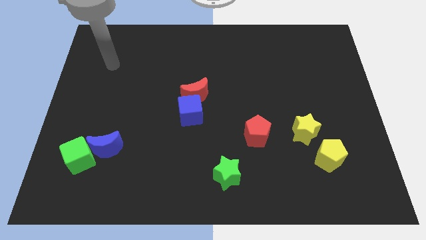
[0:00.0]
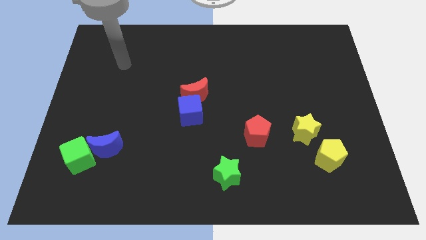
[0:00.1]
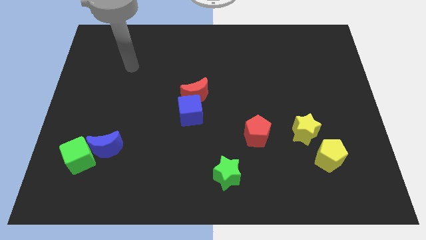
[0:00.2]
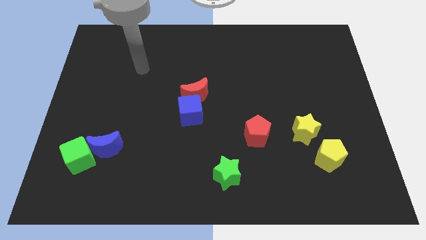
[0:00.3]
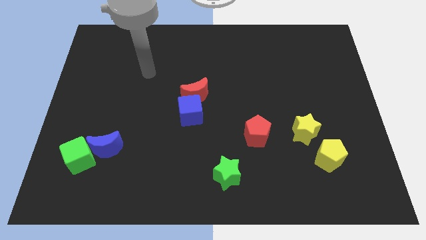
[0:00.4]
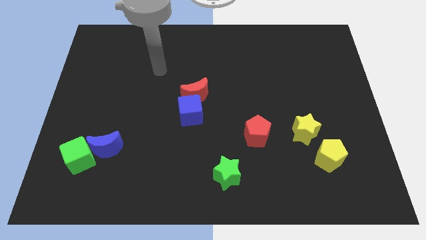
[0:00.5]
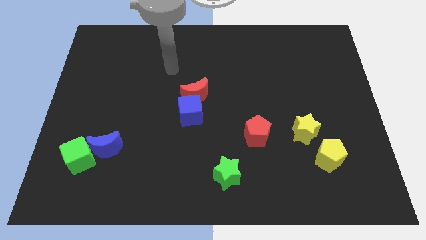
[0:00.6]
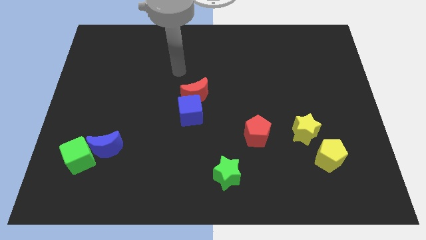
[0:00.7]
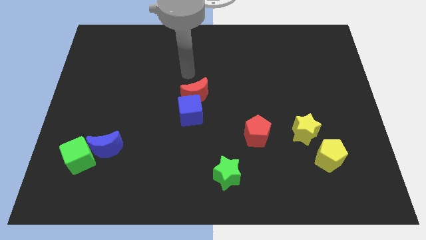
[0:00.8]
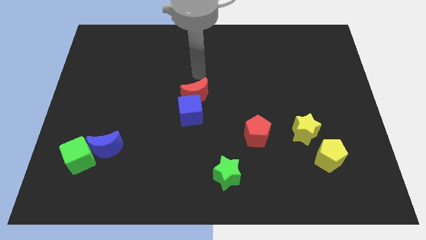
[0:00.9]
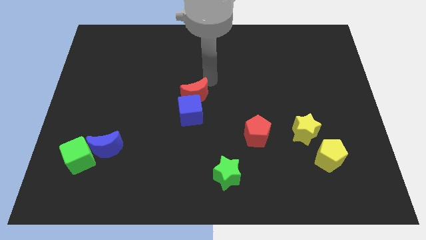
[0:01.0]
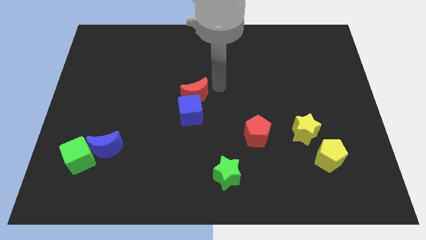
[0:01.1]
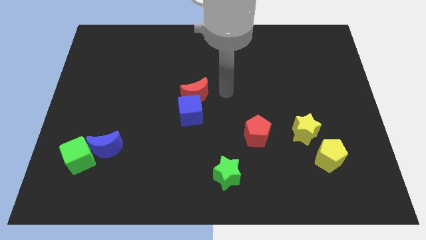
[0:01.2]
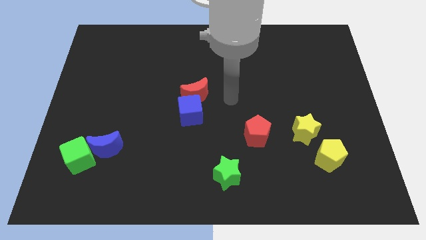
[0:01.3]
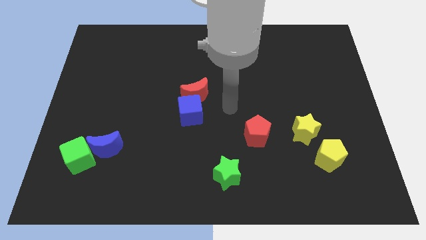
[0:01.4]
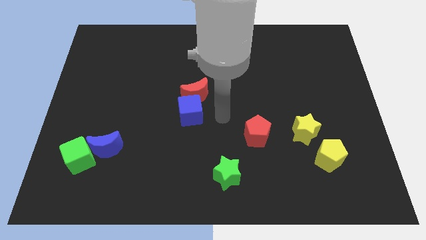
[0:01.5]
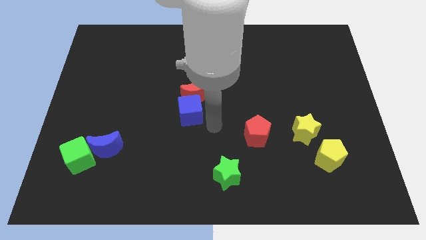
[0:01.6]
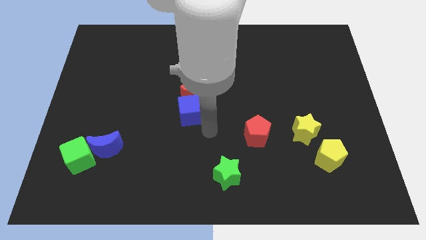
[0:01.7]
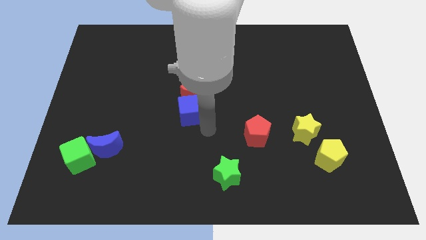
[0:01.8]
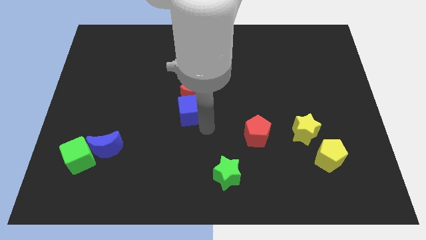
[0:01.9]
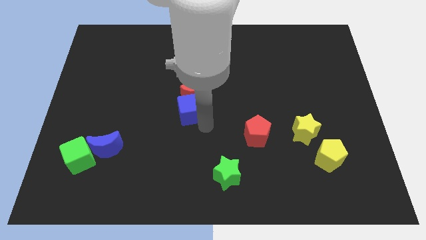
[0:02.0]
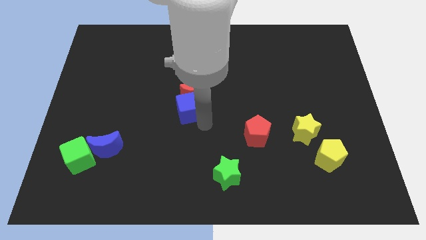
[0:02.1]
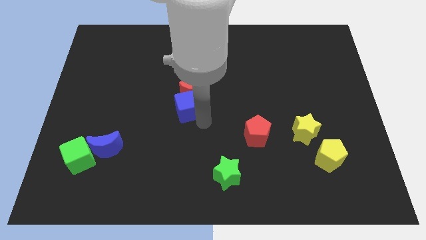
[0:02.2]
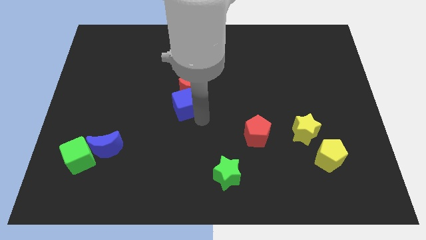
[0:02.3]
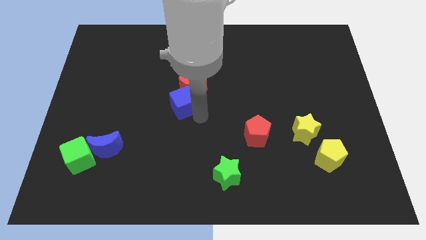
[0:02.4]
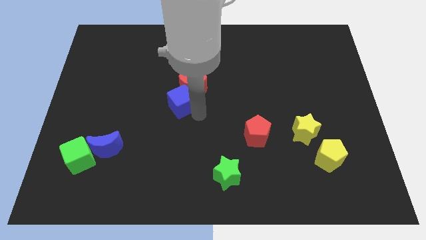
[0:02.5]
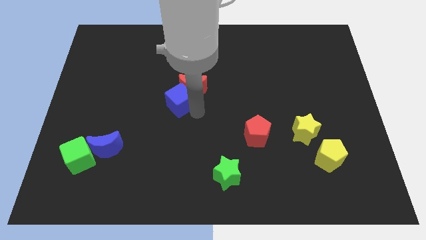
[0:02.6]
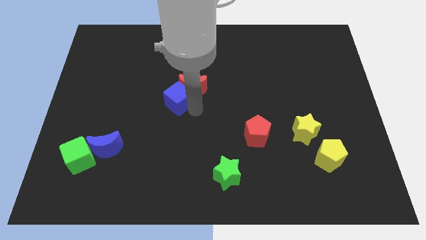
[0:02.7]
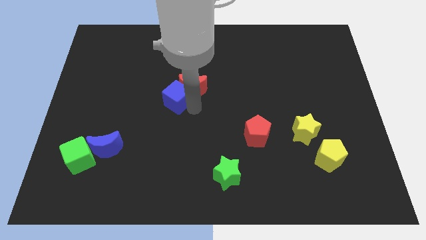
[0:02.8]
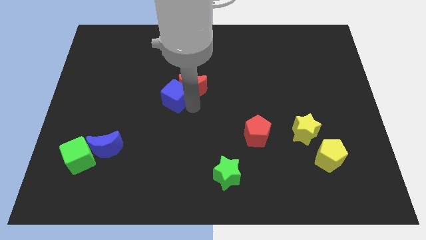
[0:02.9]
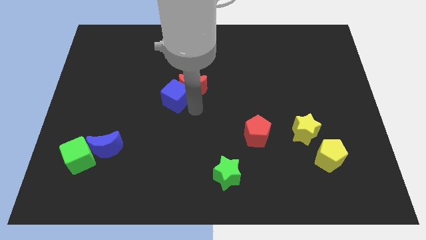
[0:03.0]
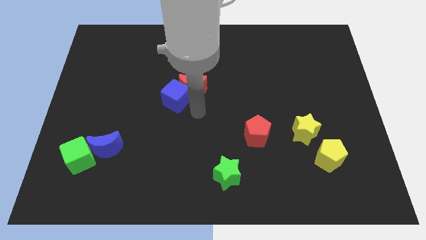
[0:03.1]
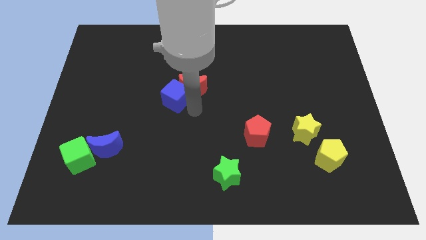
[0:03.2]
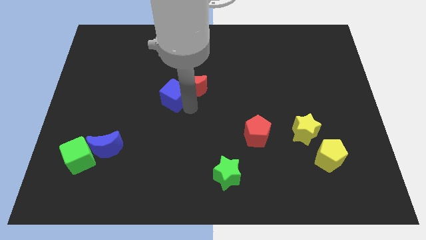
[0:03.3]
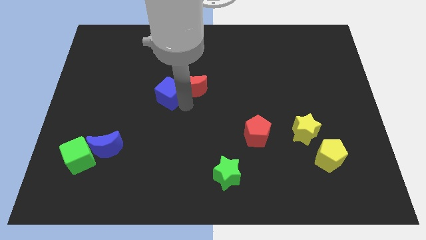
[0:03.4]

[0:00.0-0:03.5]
slightly move the blue cube upwards and then to the left

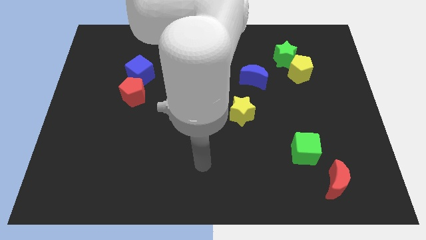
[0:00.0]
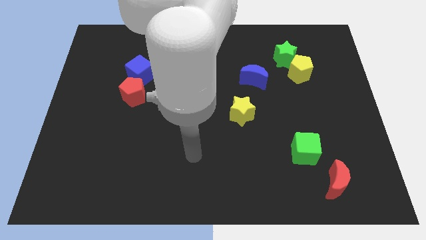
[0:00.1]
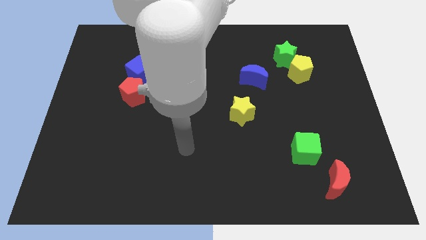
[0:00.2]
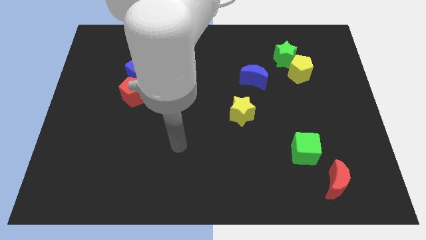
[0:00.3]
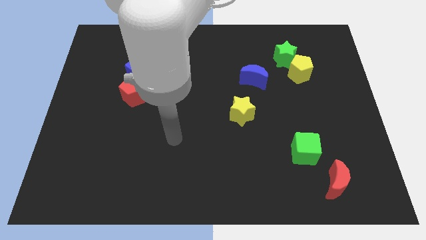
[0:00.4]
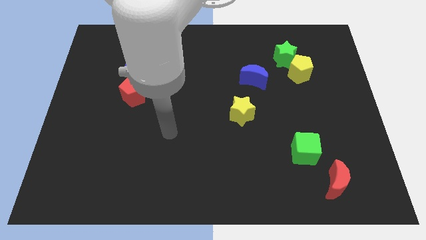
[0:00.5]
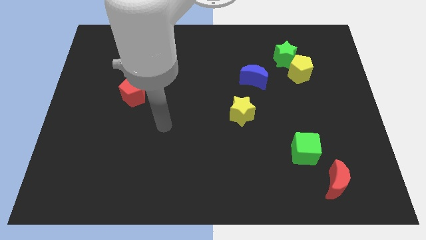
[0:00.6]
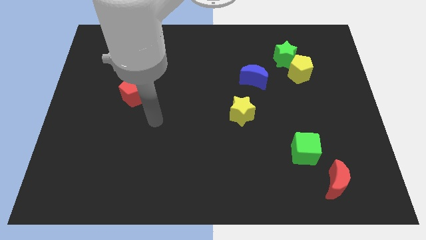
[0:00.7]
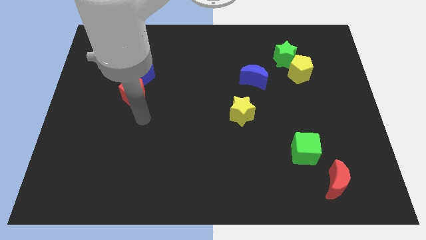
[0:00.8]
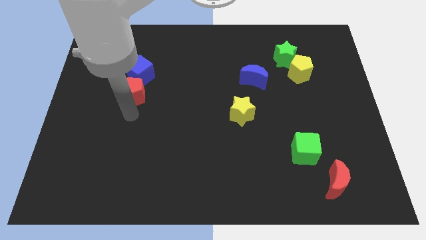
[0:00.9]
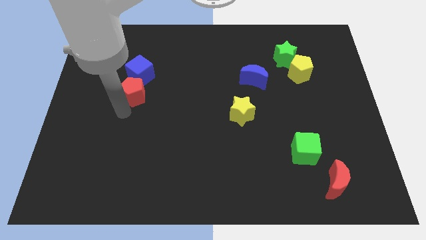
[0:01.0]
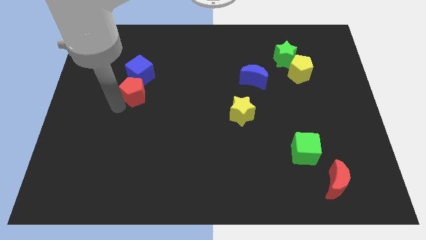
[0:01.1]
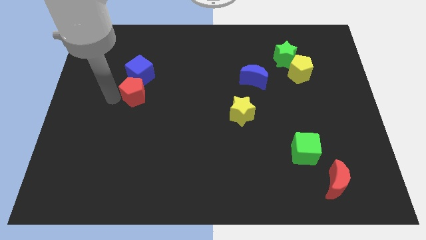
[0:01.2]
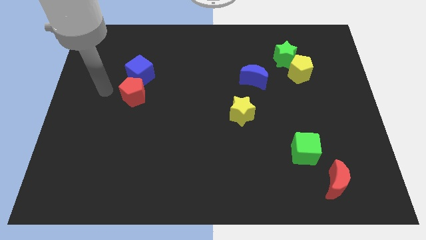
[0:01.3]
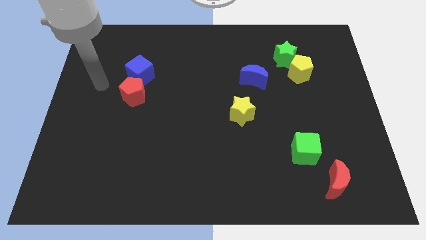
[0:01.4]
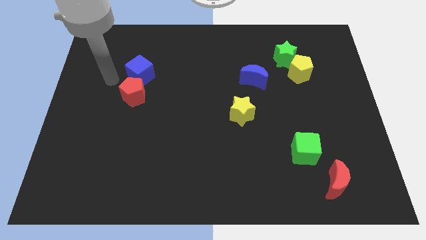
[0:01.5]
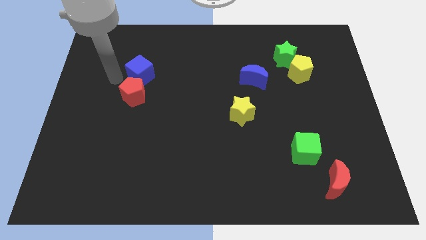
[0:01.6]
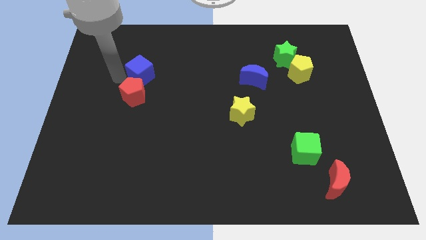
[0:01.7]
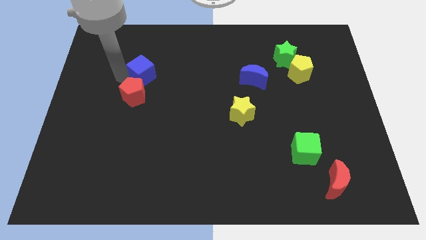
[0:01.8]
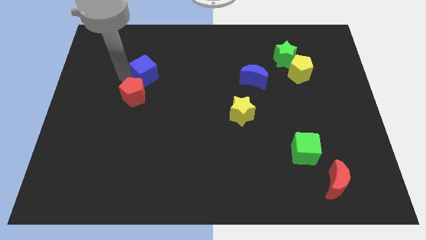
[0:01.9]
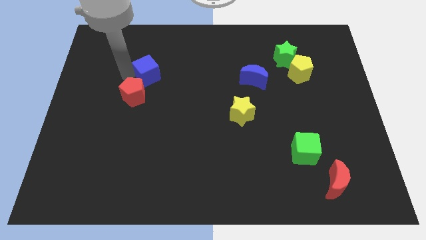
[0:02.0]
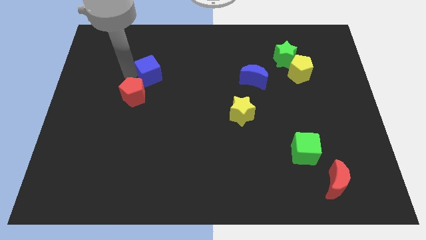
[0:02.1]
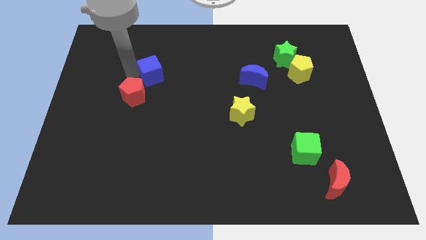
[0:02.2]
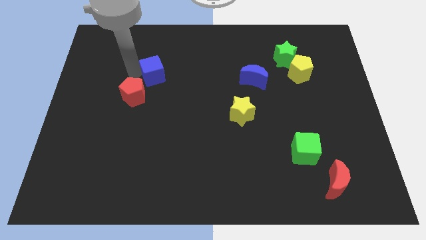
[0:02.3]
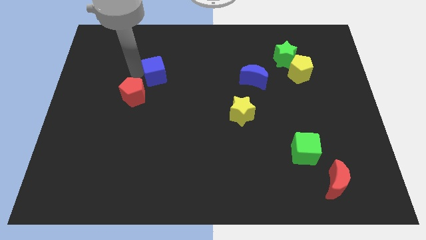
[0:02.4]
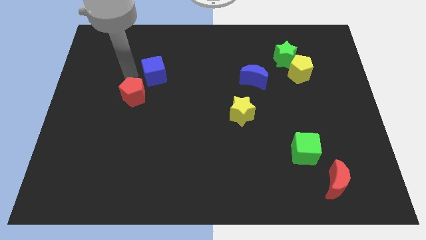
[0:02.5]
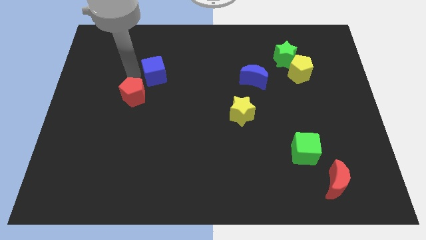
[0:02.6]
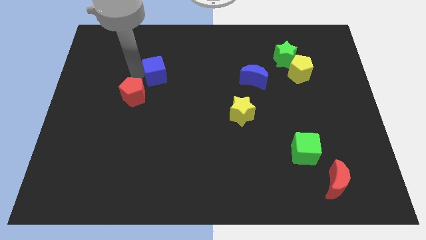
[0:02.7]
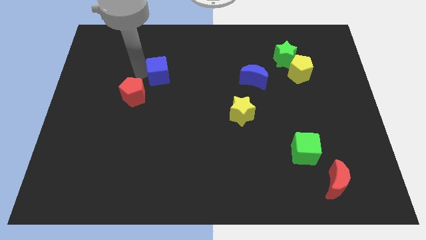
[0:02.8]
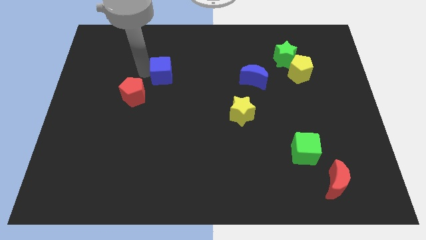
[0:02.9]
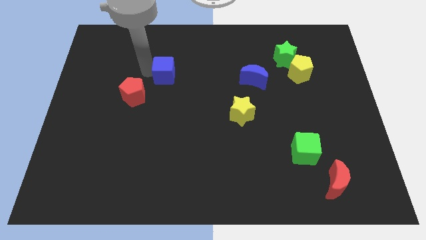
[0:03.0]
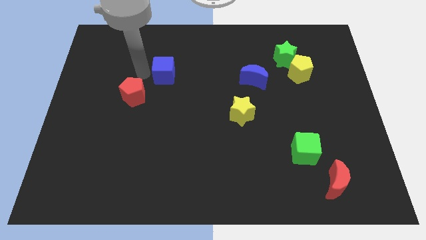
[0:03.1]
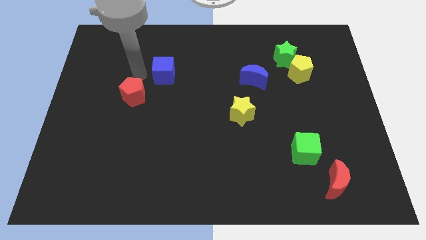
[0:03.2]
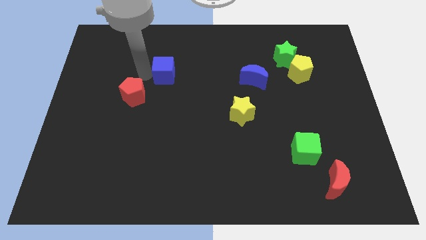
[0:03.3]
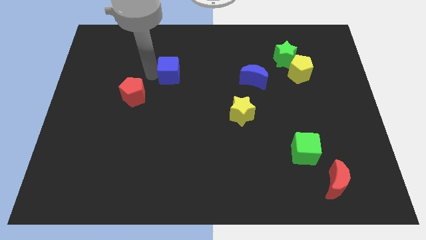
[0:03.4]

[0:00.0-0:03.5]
move the blue cube somewhat to the right

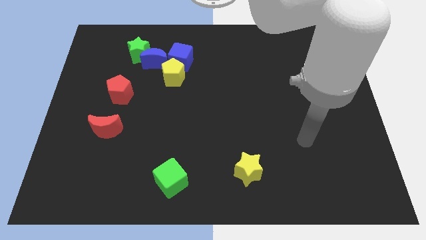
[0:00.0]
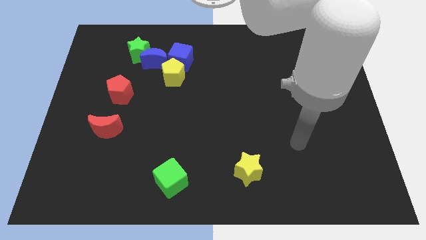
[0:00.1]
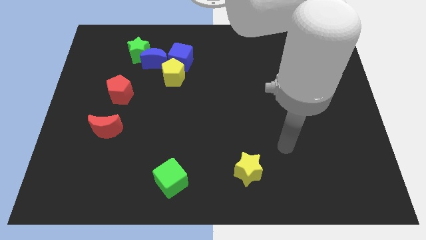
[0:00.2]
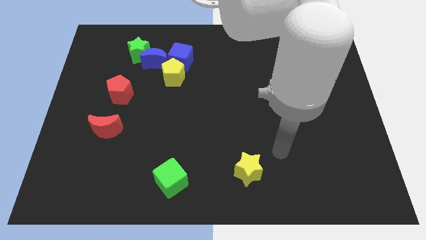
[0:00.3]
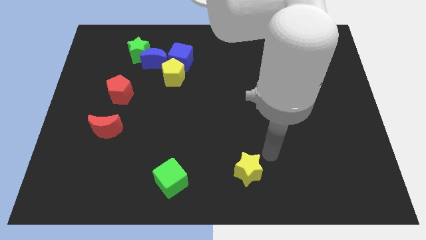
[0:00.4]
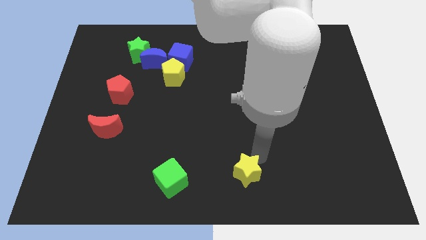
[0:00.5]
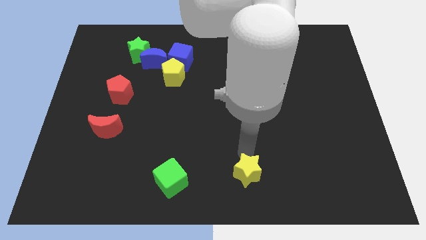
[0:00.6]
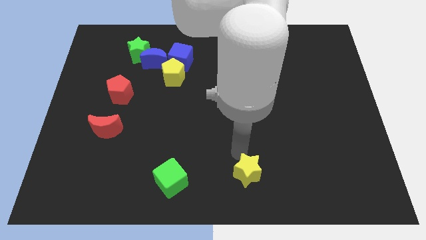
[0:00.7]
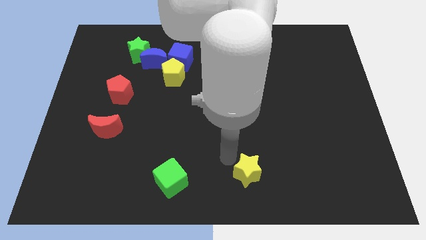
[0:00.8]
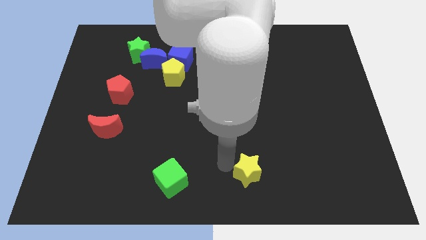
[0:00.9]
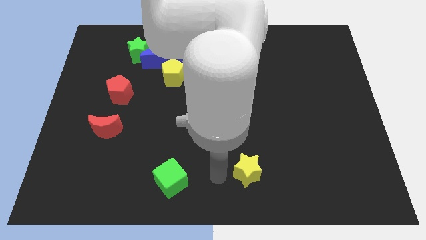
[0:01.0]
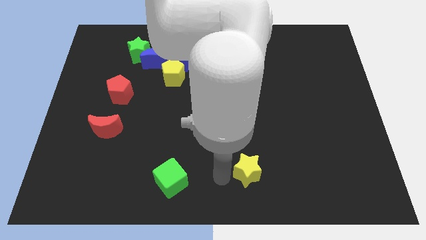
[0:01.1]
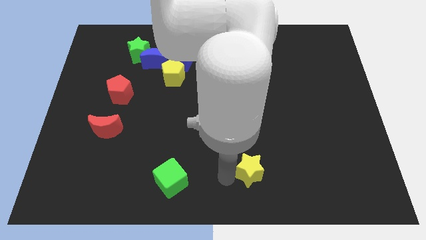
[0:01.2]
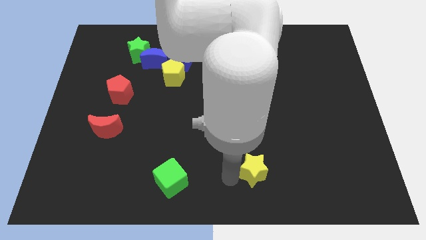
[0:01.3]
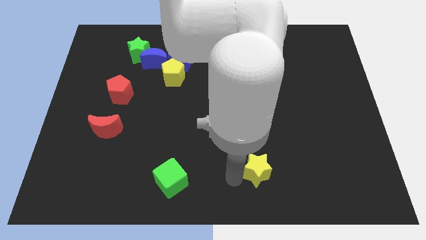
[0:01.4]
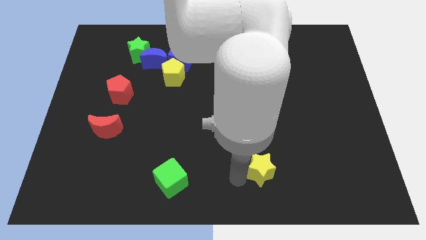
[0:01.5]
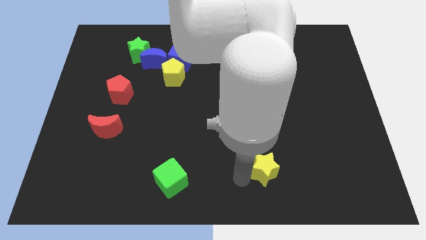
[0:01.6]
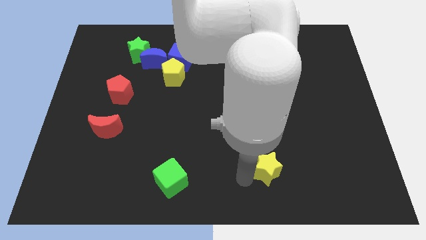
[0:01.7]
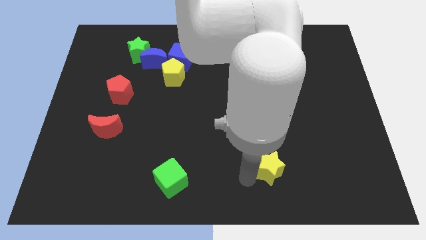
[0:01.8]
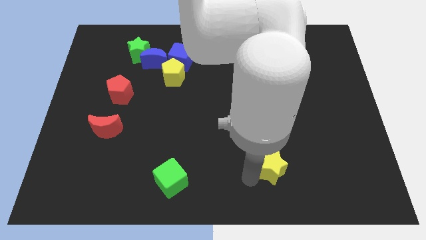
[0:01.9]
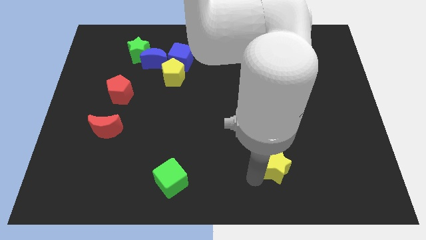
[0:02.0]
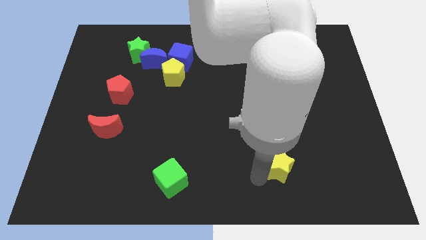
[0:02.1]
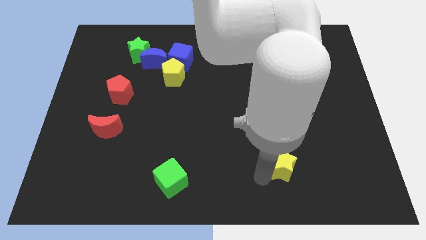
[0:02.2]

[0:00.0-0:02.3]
move the yellow star right a little bit
